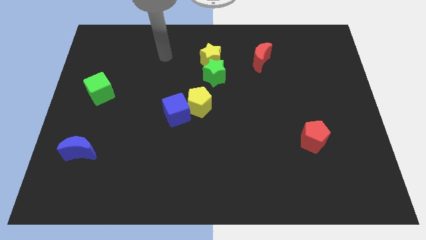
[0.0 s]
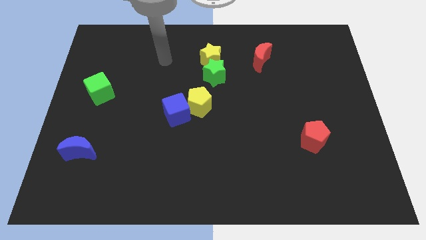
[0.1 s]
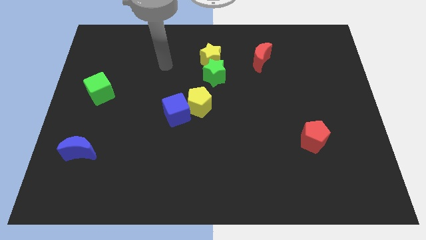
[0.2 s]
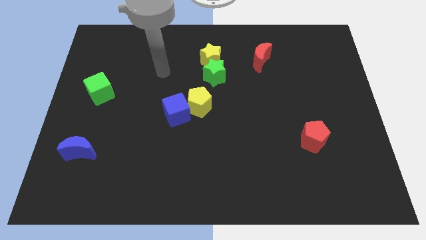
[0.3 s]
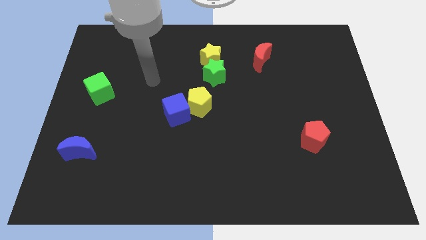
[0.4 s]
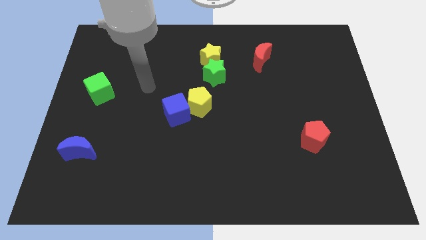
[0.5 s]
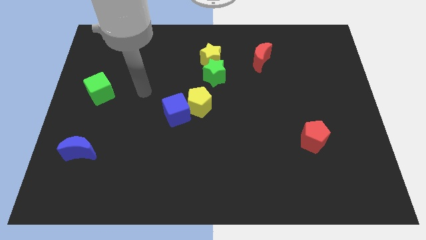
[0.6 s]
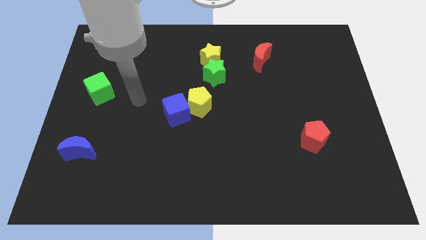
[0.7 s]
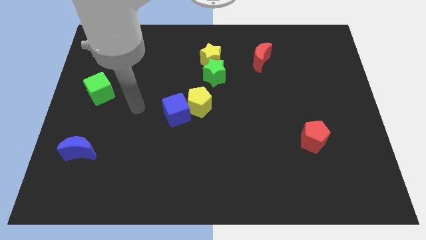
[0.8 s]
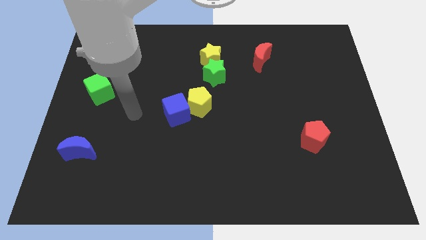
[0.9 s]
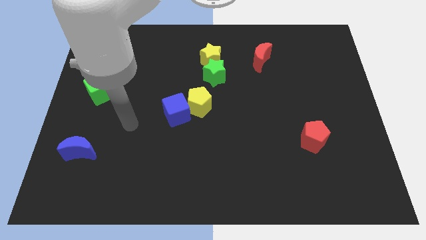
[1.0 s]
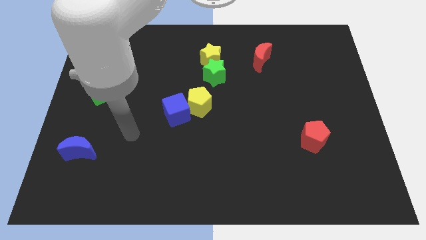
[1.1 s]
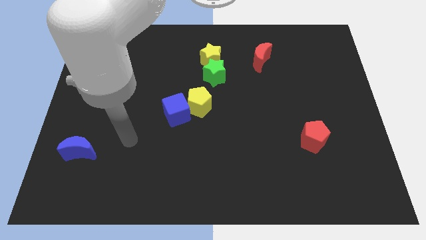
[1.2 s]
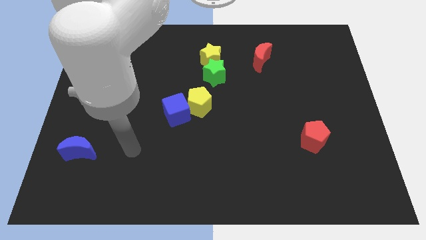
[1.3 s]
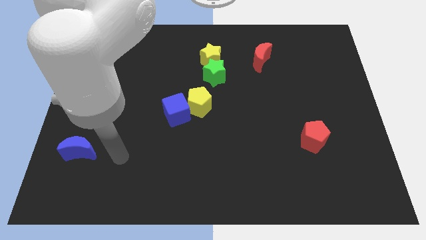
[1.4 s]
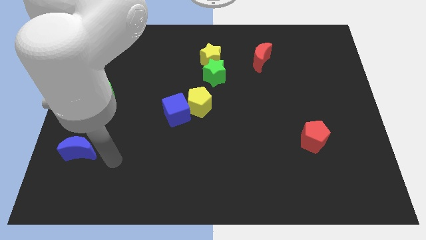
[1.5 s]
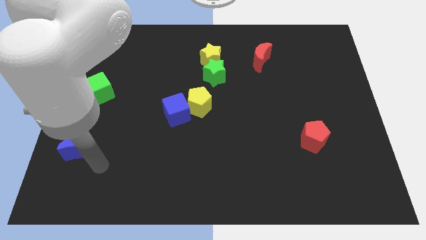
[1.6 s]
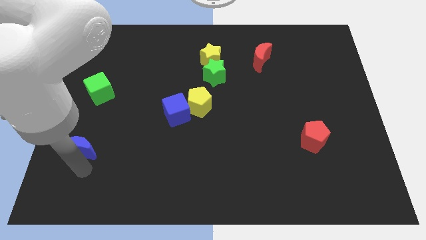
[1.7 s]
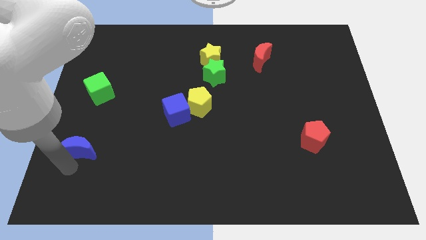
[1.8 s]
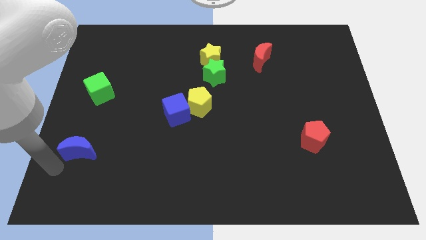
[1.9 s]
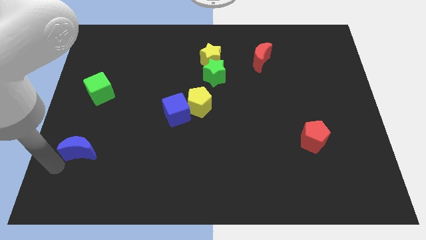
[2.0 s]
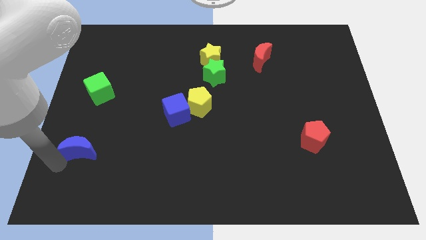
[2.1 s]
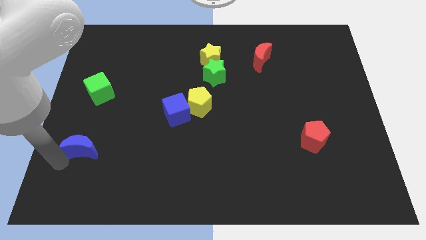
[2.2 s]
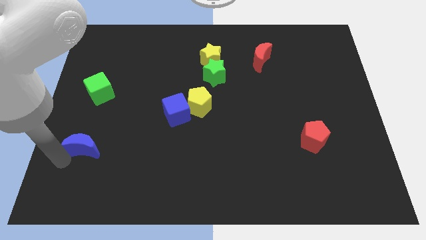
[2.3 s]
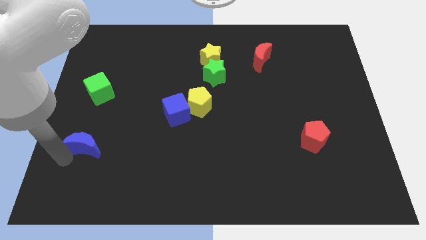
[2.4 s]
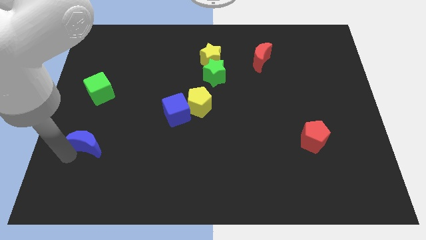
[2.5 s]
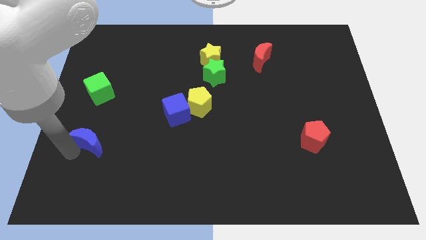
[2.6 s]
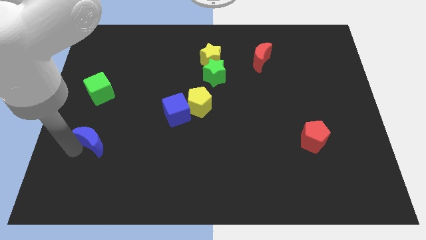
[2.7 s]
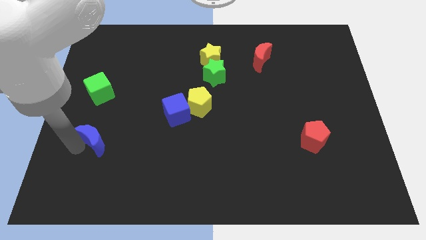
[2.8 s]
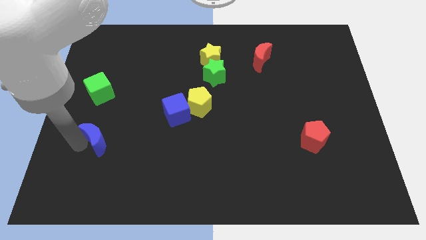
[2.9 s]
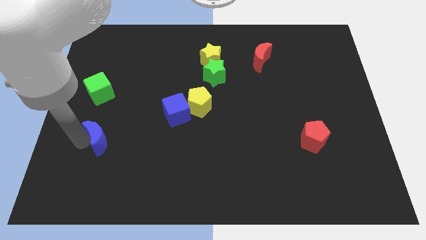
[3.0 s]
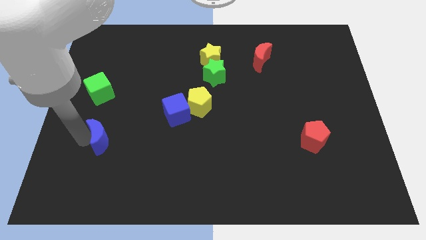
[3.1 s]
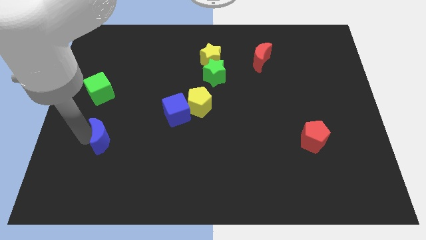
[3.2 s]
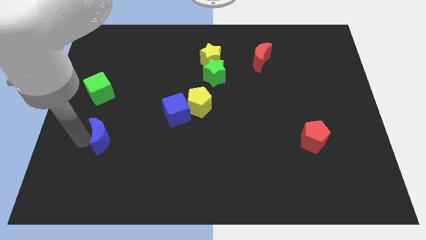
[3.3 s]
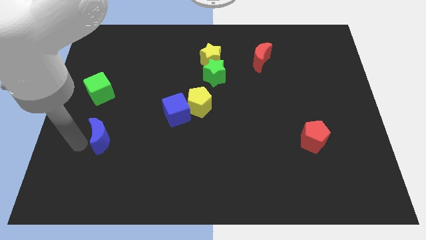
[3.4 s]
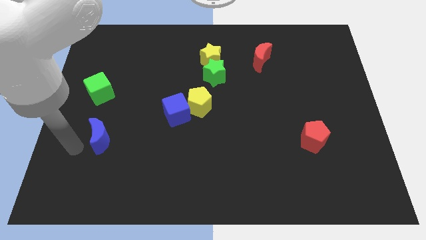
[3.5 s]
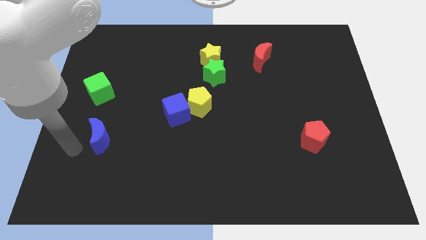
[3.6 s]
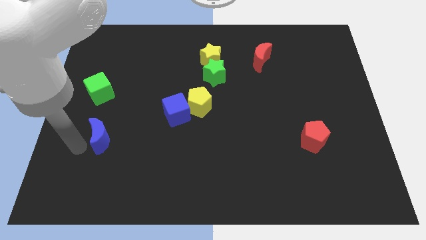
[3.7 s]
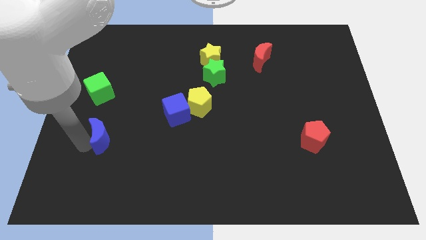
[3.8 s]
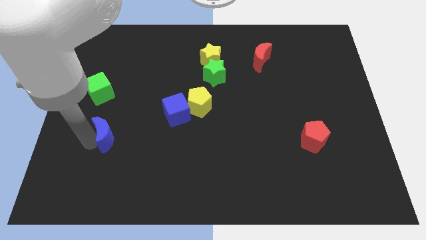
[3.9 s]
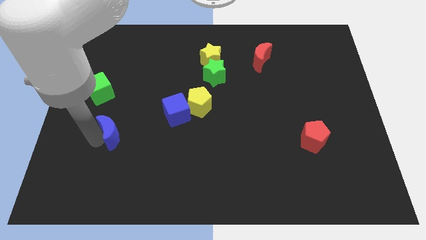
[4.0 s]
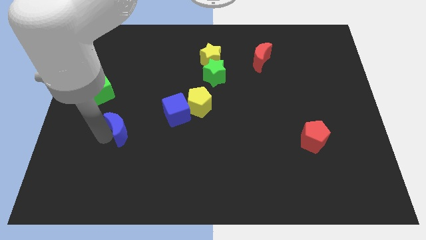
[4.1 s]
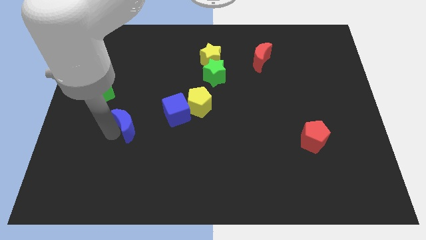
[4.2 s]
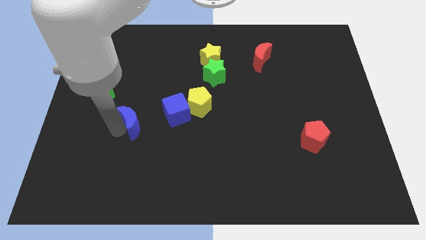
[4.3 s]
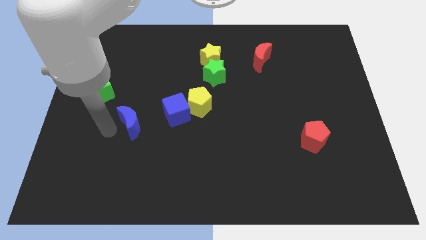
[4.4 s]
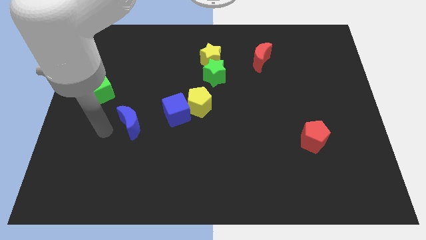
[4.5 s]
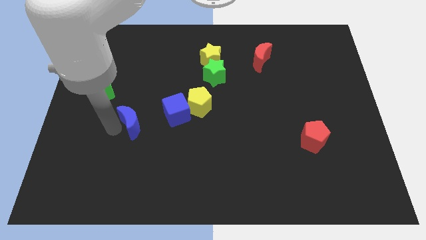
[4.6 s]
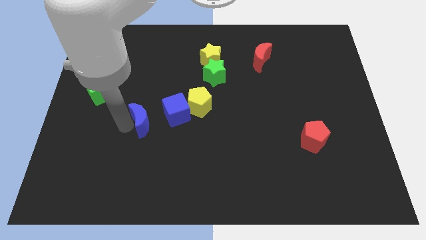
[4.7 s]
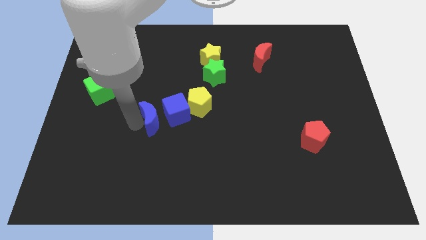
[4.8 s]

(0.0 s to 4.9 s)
put the blue moon towards the blue cube

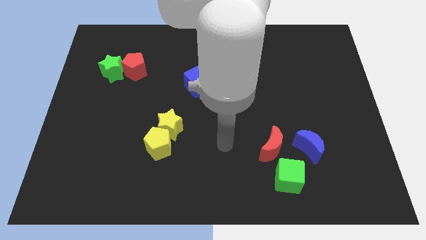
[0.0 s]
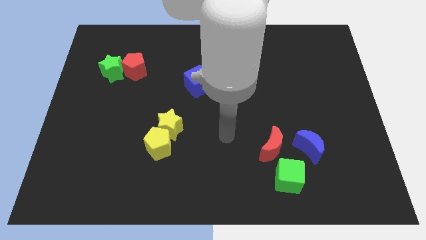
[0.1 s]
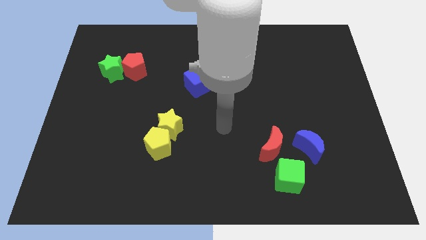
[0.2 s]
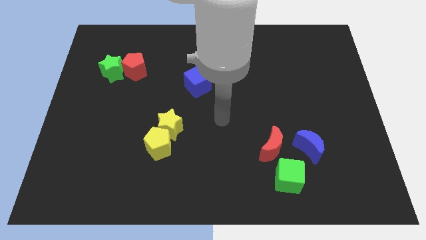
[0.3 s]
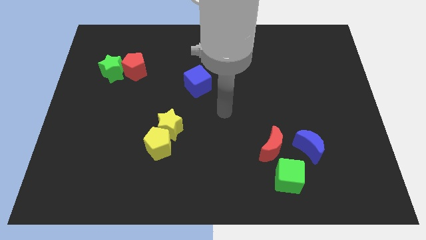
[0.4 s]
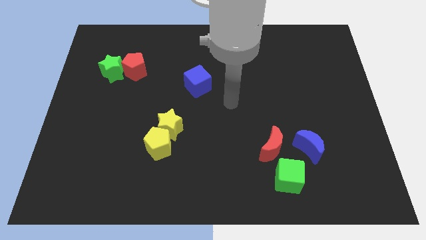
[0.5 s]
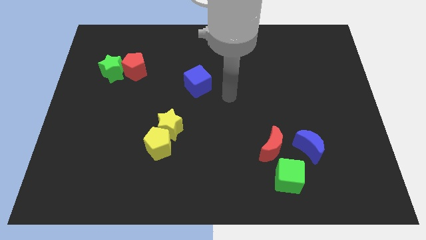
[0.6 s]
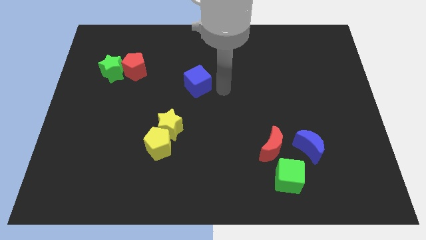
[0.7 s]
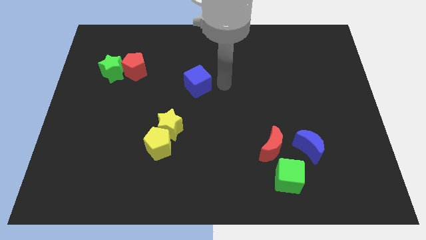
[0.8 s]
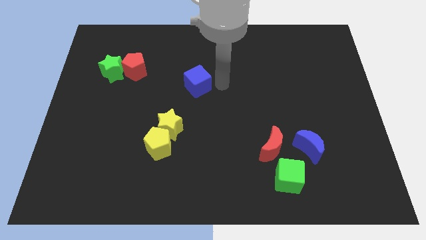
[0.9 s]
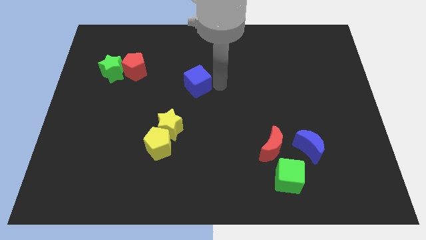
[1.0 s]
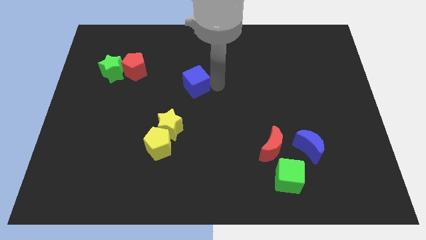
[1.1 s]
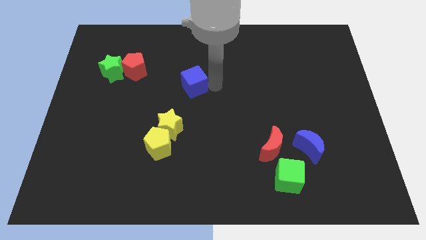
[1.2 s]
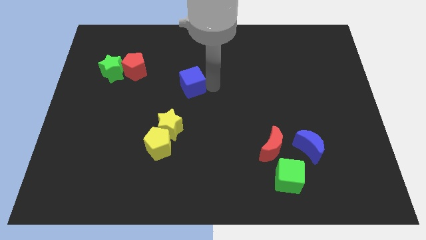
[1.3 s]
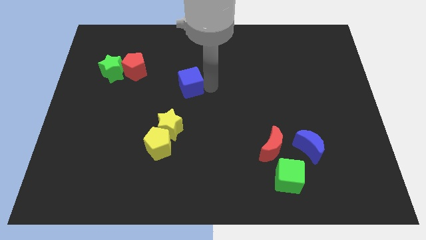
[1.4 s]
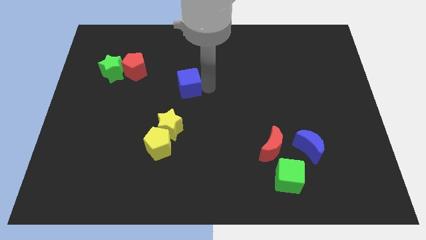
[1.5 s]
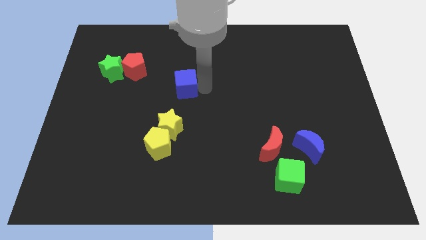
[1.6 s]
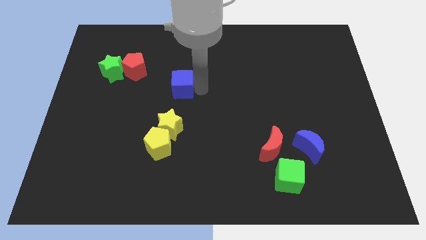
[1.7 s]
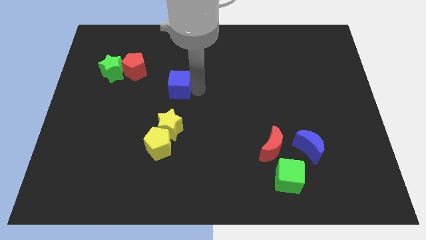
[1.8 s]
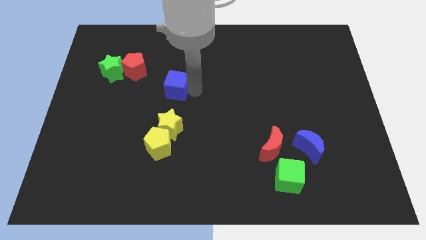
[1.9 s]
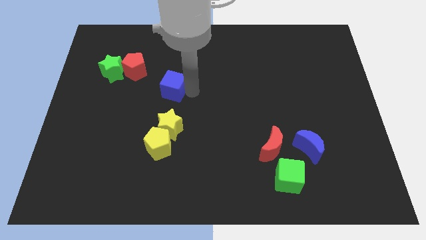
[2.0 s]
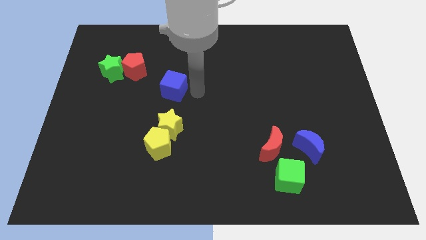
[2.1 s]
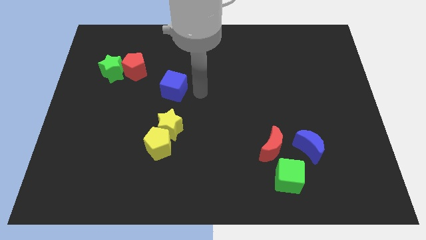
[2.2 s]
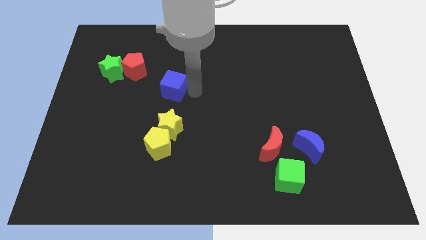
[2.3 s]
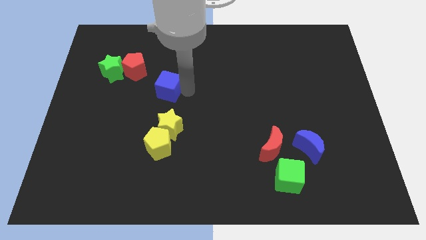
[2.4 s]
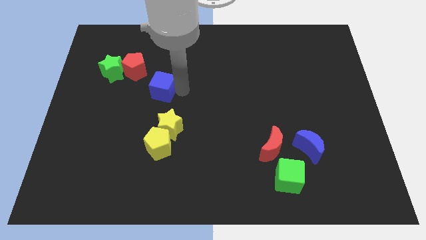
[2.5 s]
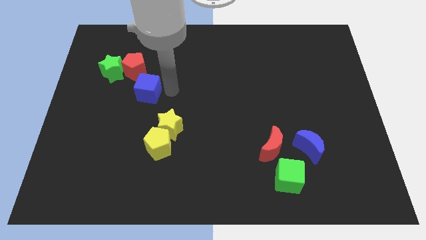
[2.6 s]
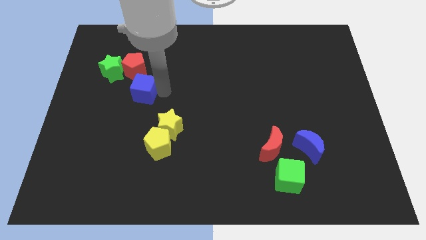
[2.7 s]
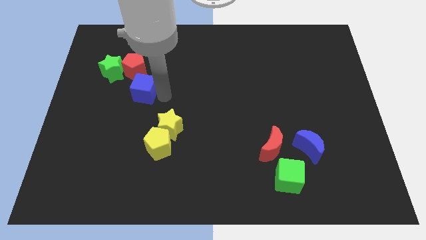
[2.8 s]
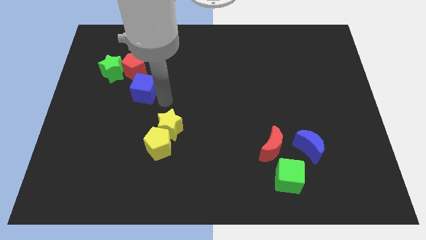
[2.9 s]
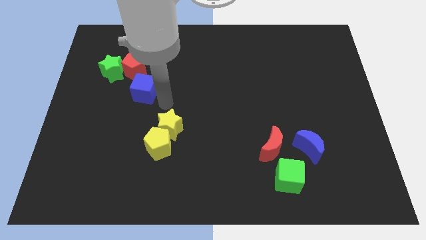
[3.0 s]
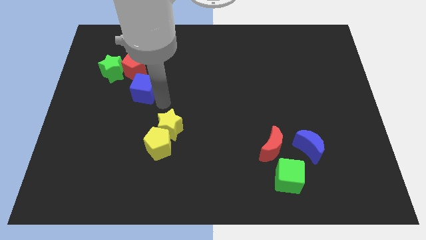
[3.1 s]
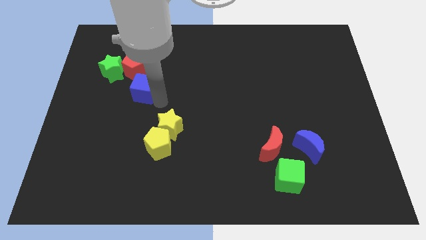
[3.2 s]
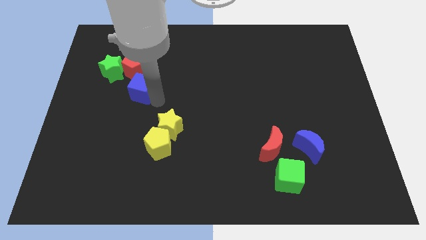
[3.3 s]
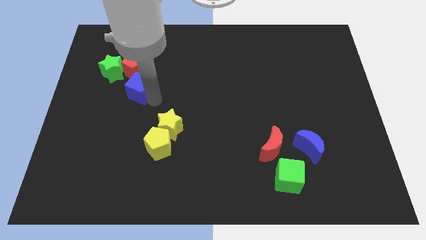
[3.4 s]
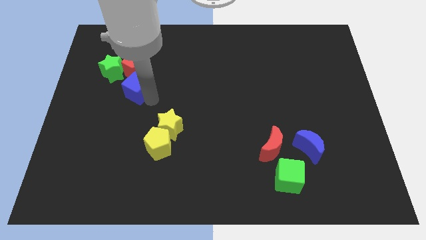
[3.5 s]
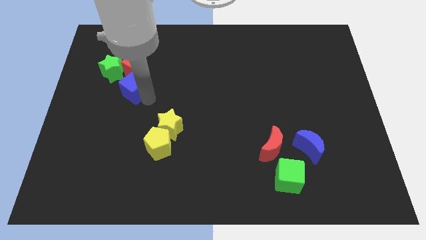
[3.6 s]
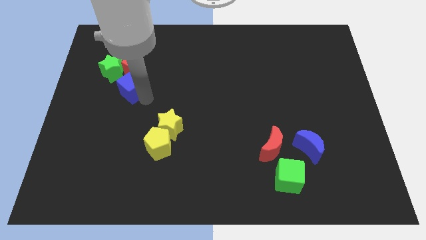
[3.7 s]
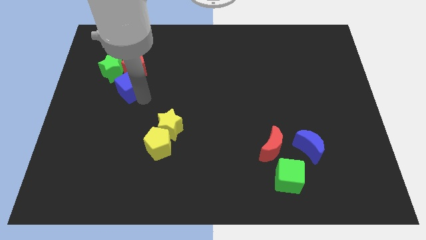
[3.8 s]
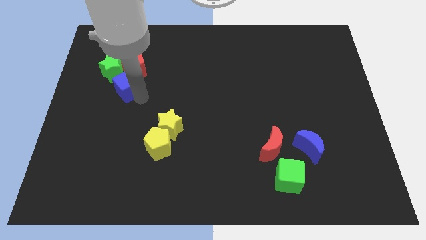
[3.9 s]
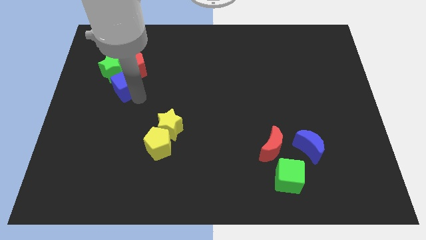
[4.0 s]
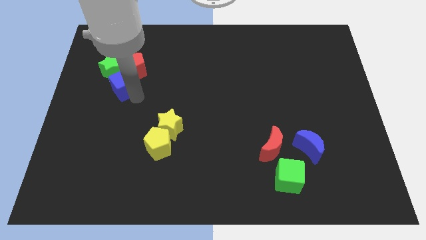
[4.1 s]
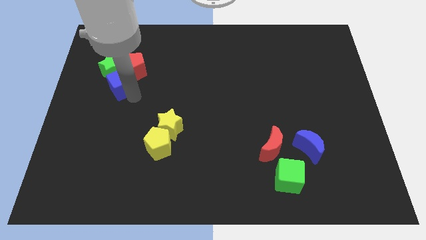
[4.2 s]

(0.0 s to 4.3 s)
put the blue cube to the green star
